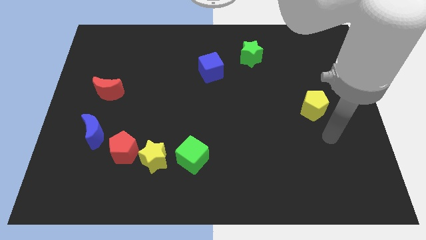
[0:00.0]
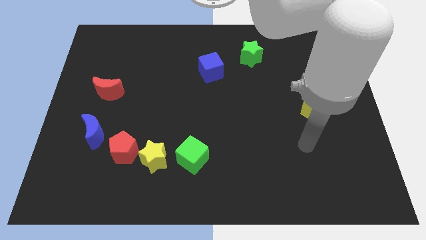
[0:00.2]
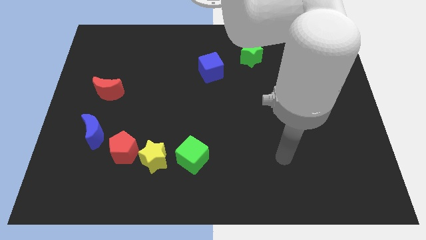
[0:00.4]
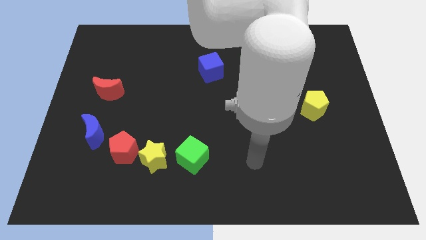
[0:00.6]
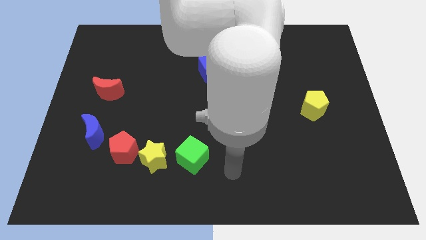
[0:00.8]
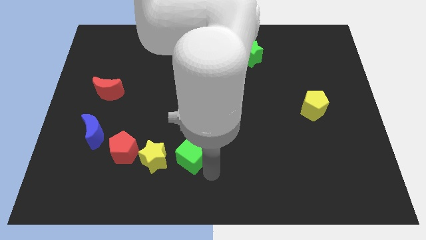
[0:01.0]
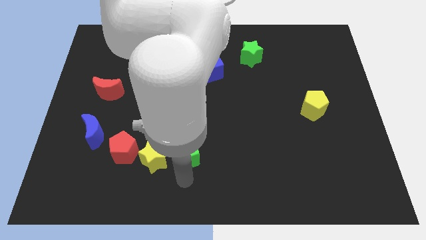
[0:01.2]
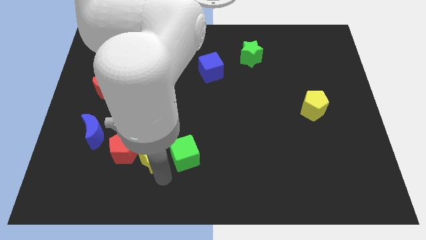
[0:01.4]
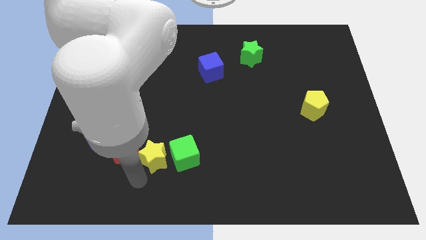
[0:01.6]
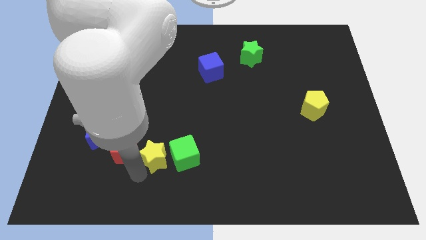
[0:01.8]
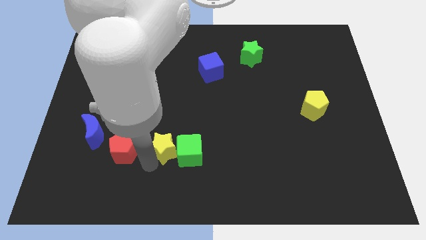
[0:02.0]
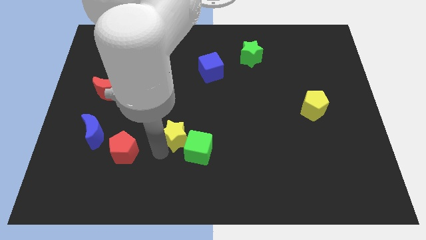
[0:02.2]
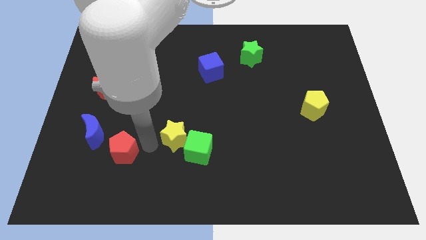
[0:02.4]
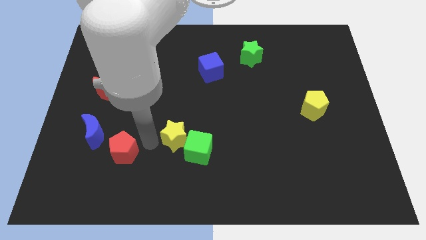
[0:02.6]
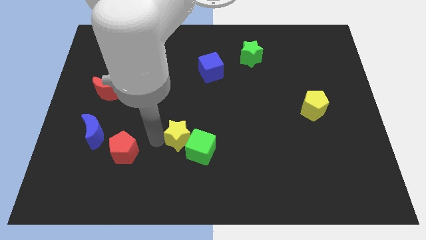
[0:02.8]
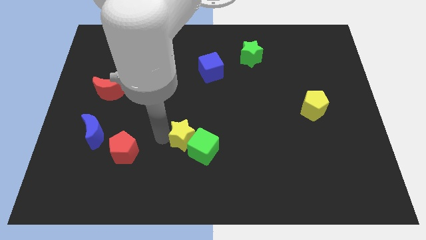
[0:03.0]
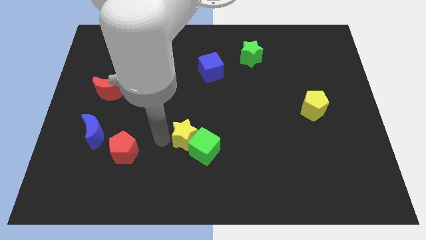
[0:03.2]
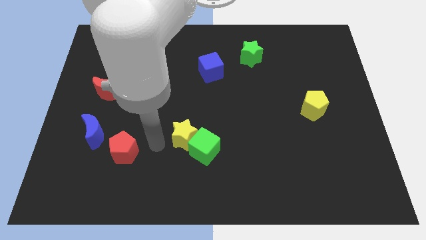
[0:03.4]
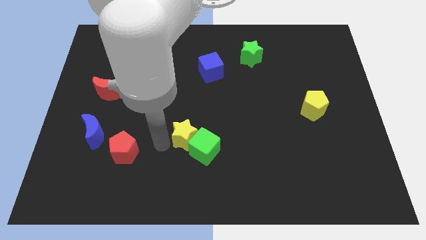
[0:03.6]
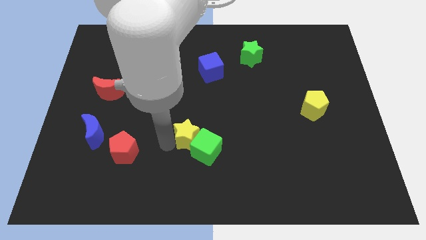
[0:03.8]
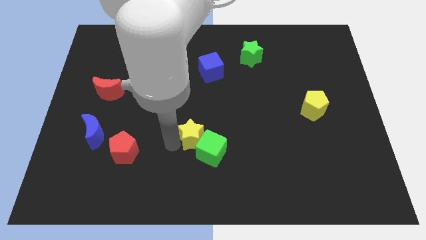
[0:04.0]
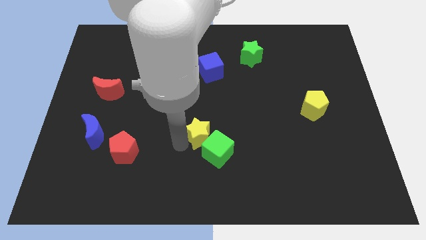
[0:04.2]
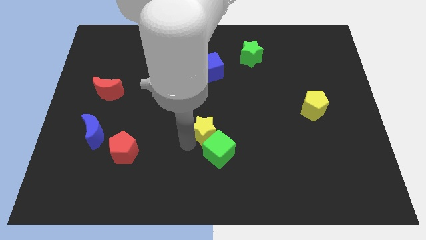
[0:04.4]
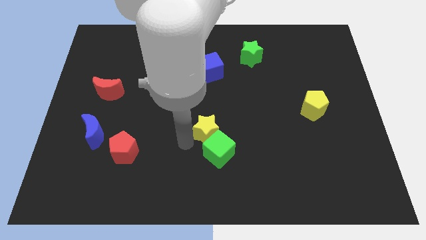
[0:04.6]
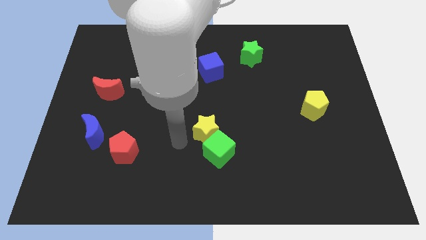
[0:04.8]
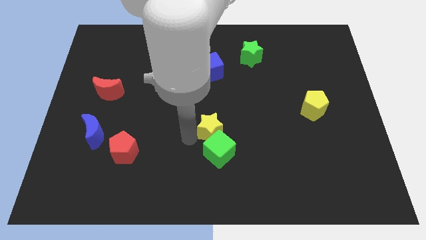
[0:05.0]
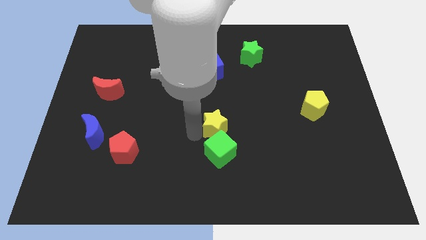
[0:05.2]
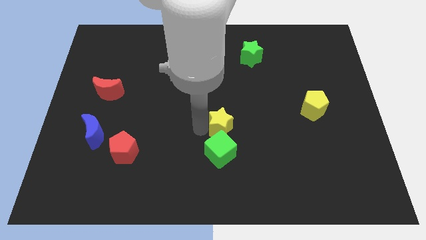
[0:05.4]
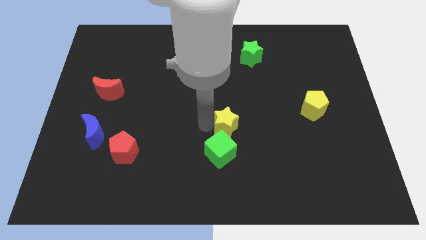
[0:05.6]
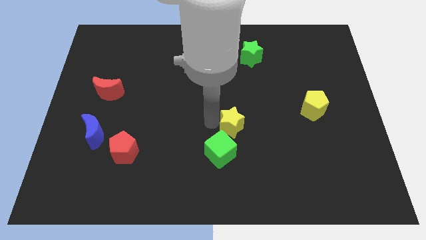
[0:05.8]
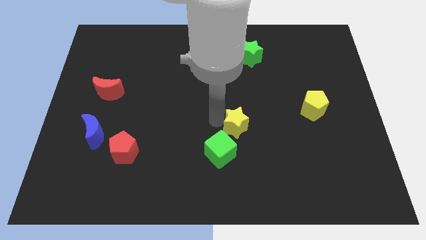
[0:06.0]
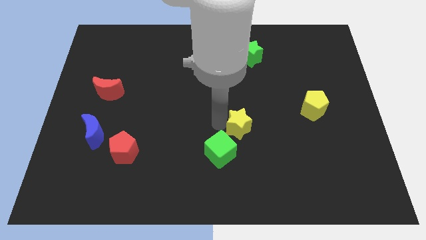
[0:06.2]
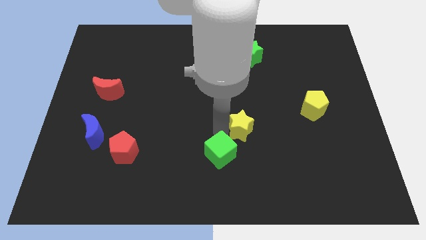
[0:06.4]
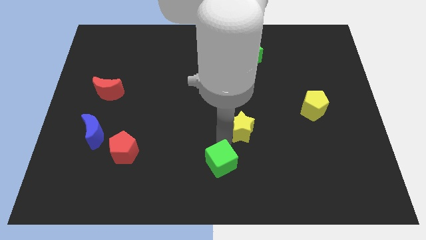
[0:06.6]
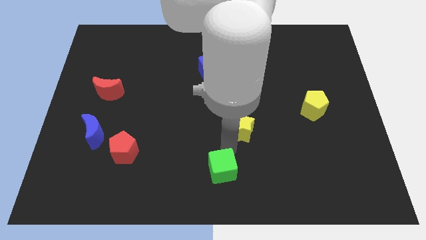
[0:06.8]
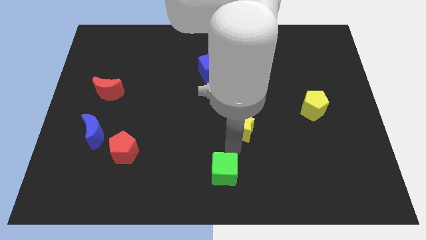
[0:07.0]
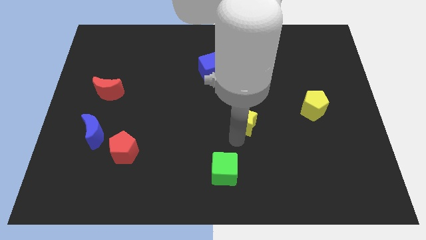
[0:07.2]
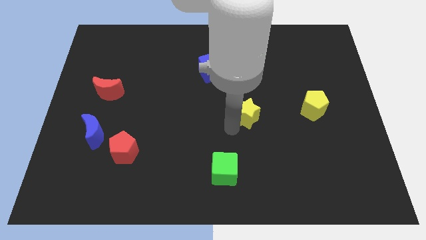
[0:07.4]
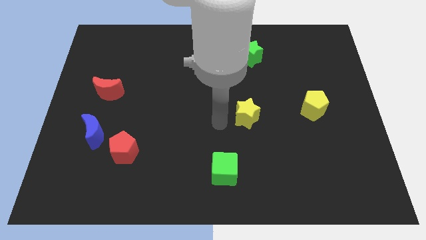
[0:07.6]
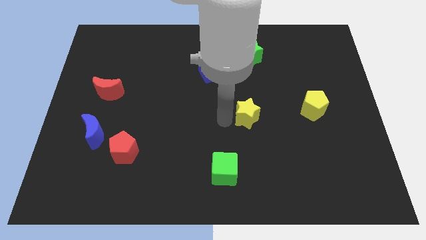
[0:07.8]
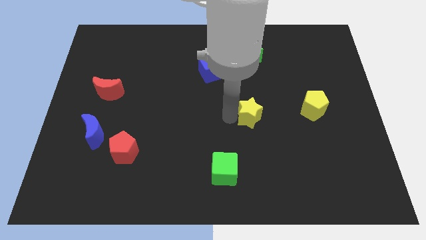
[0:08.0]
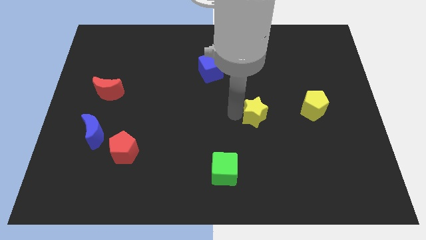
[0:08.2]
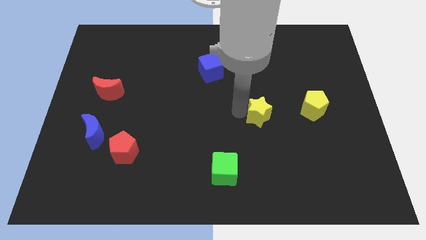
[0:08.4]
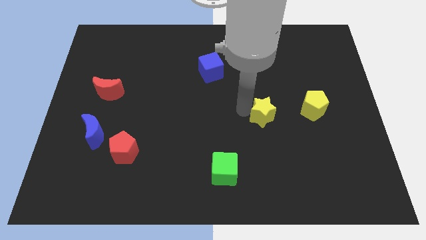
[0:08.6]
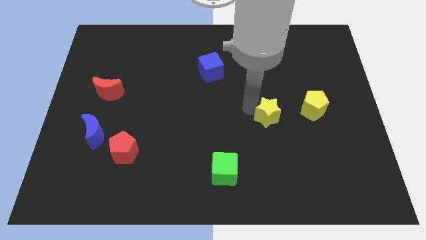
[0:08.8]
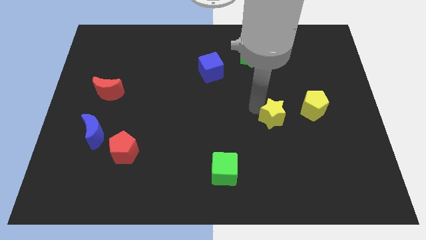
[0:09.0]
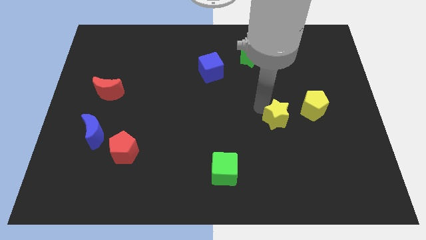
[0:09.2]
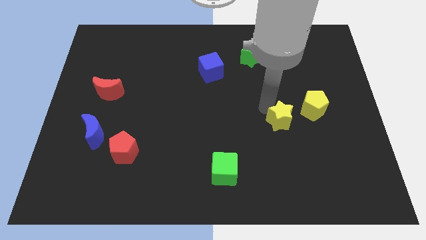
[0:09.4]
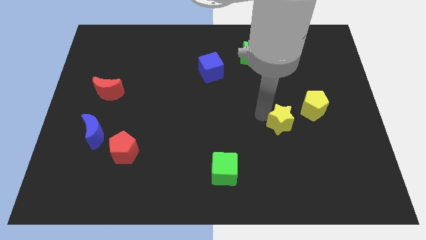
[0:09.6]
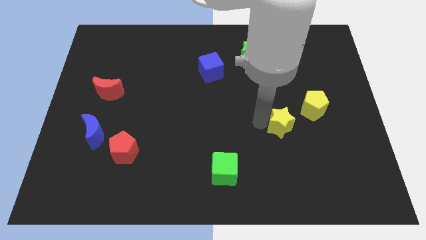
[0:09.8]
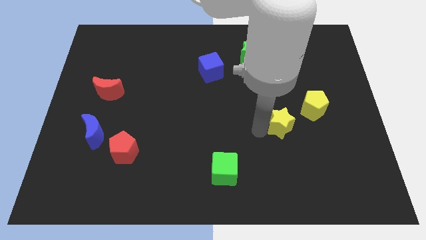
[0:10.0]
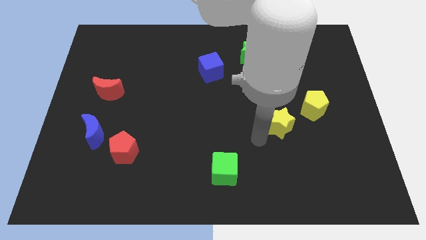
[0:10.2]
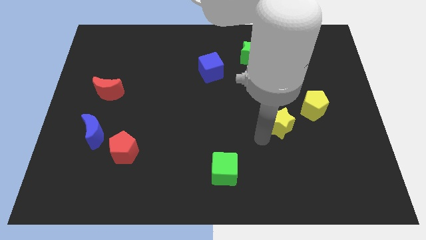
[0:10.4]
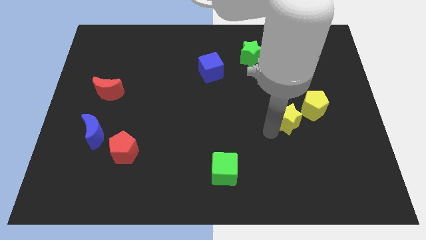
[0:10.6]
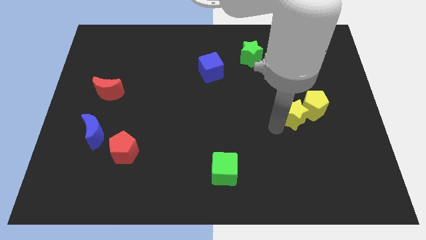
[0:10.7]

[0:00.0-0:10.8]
slide the yellow star close to the yellow pentagon

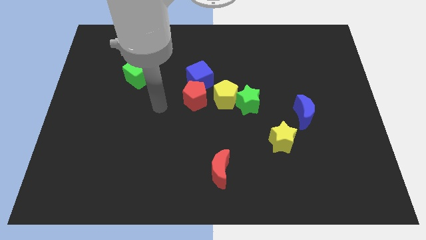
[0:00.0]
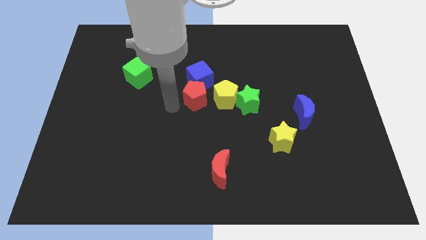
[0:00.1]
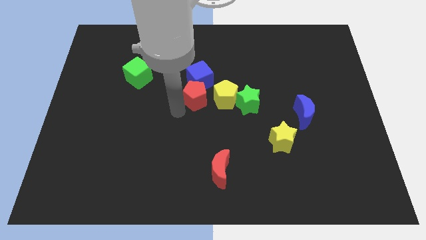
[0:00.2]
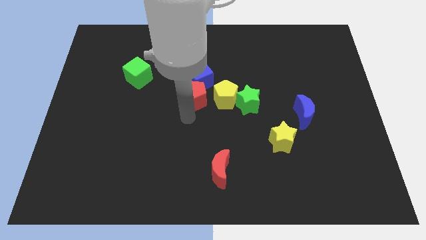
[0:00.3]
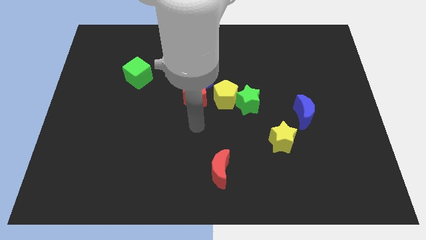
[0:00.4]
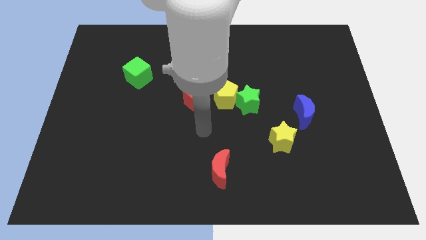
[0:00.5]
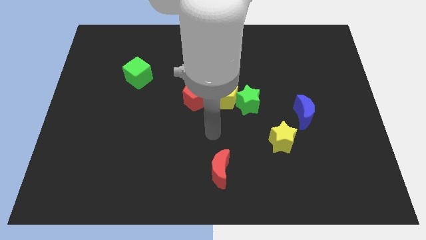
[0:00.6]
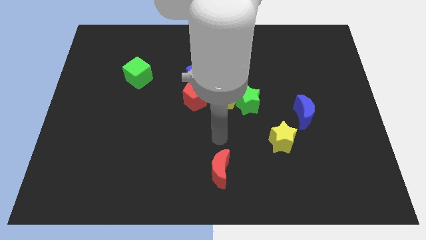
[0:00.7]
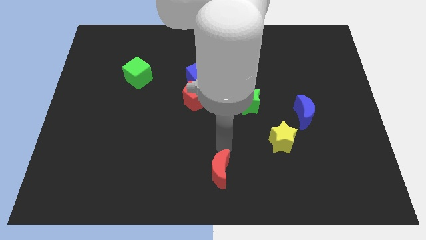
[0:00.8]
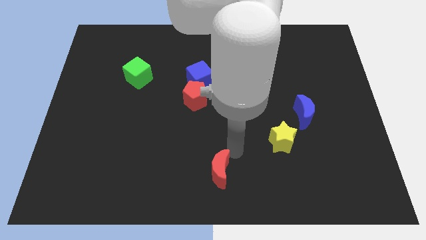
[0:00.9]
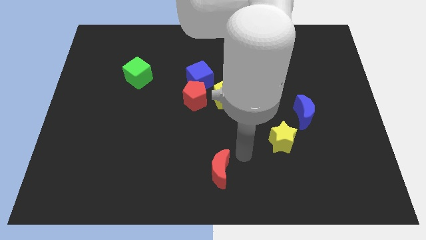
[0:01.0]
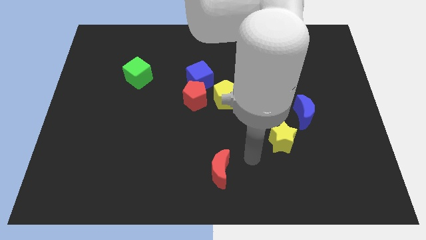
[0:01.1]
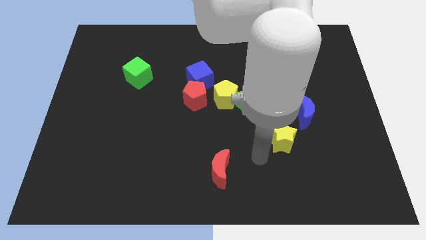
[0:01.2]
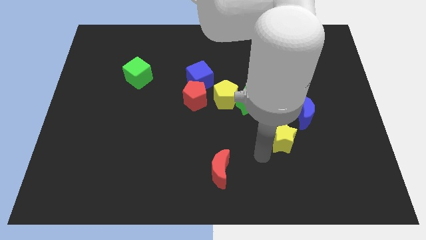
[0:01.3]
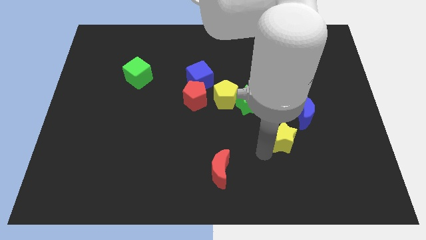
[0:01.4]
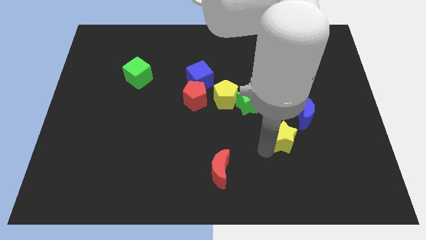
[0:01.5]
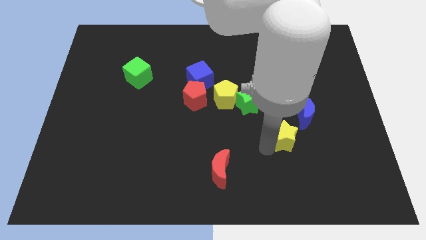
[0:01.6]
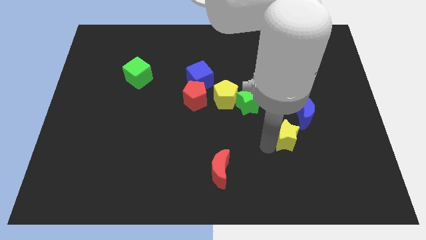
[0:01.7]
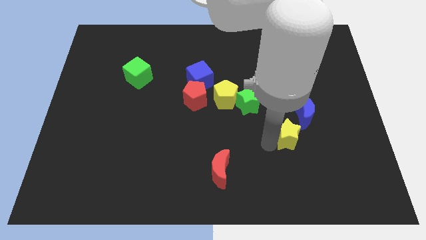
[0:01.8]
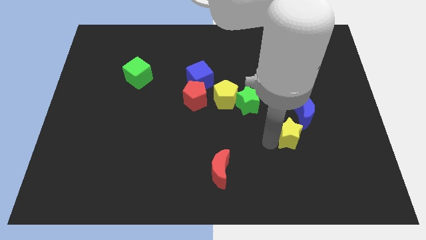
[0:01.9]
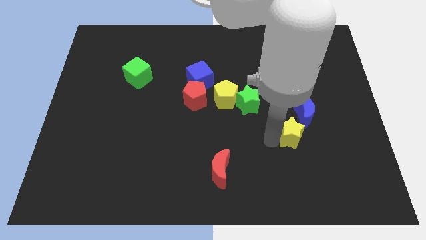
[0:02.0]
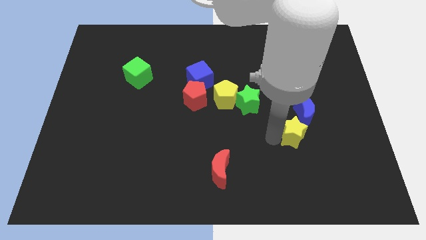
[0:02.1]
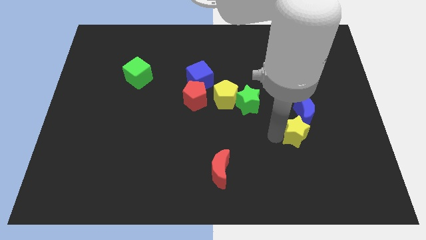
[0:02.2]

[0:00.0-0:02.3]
slide the yellow star to the blue moon
